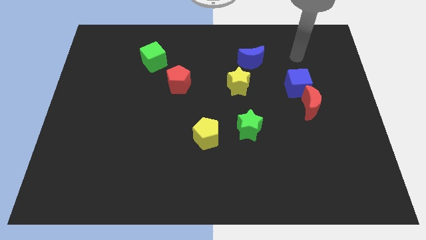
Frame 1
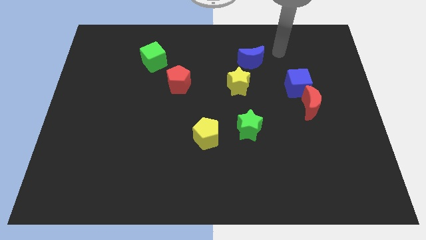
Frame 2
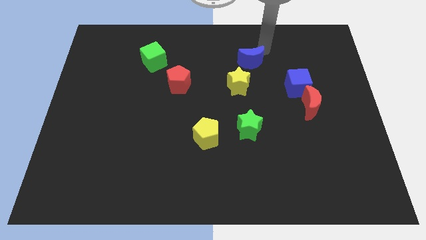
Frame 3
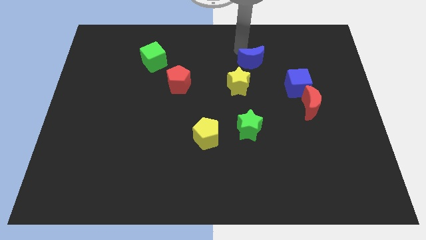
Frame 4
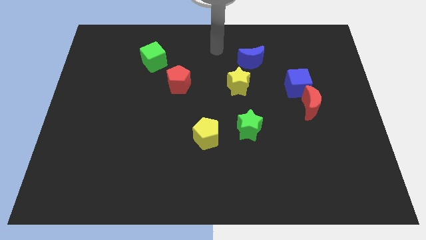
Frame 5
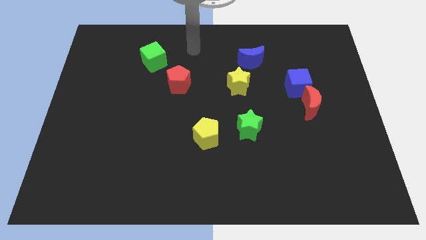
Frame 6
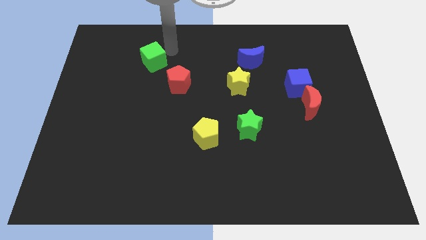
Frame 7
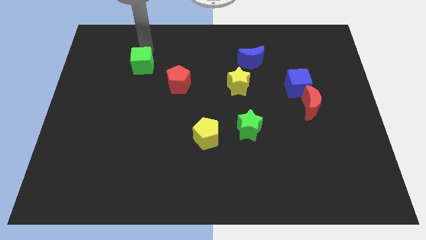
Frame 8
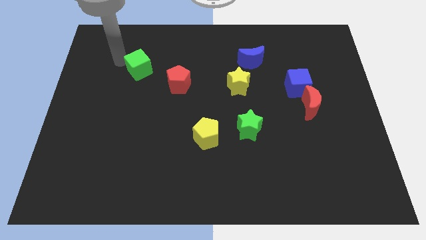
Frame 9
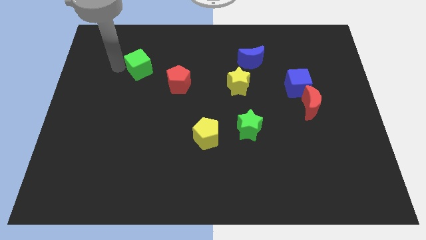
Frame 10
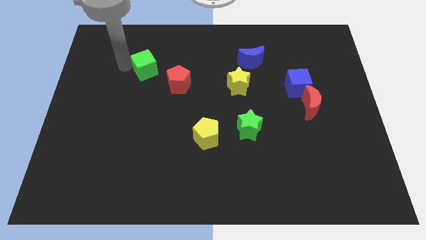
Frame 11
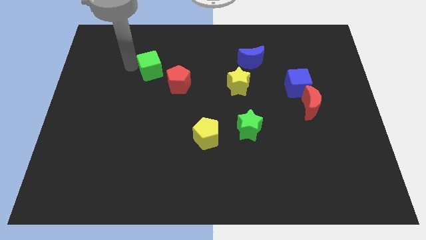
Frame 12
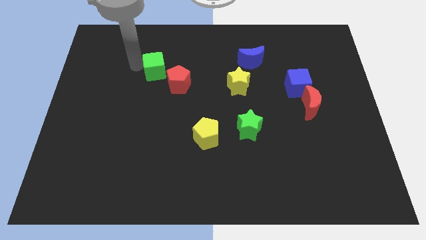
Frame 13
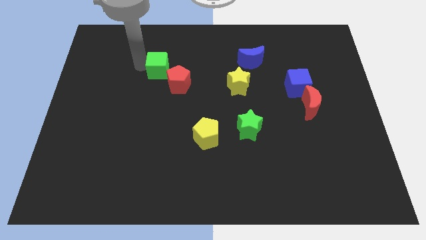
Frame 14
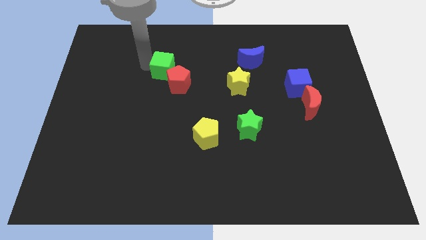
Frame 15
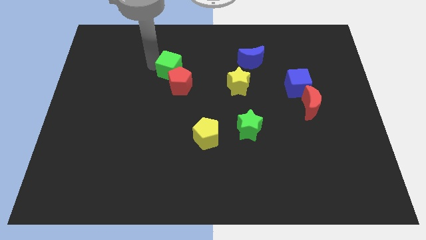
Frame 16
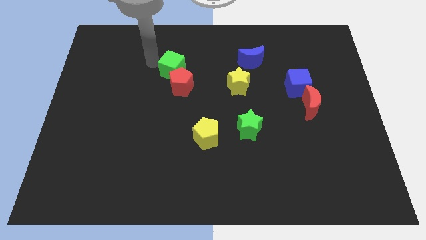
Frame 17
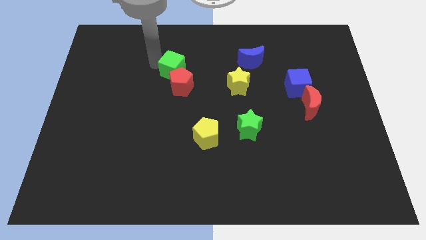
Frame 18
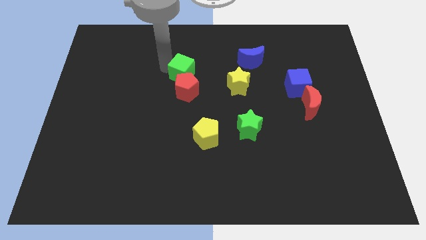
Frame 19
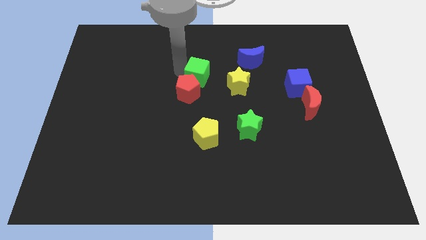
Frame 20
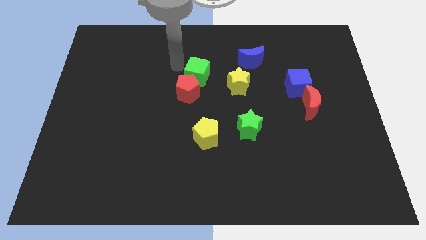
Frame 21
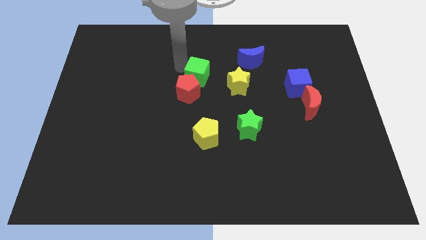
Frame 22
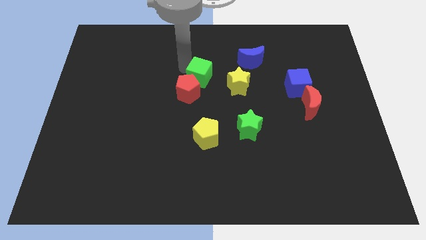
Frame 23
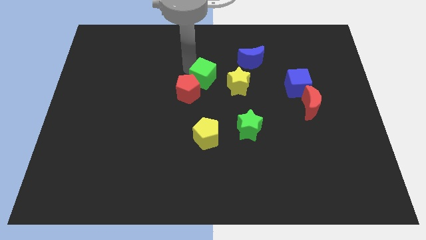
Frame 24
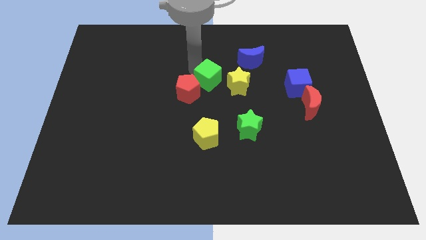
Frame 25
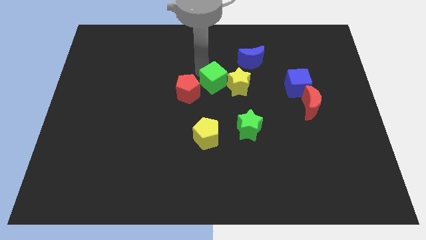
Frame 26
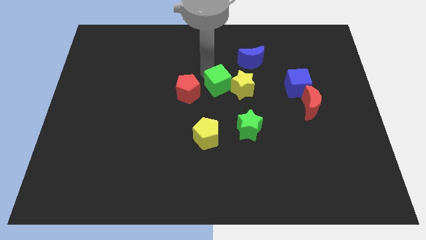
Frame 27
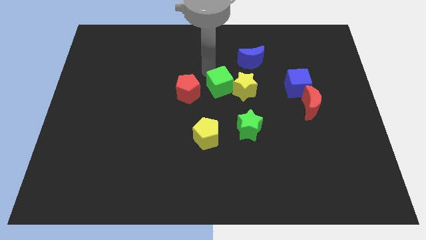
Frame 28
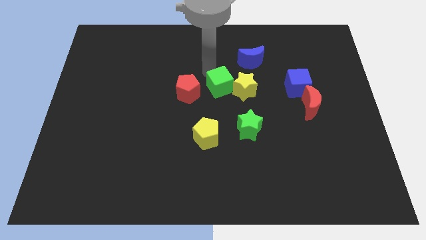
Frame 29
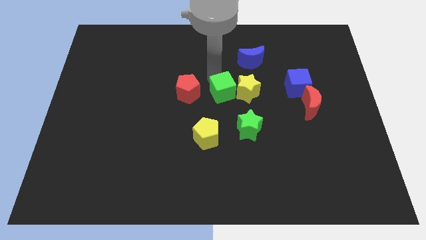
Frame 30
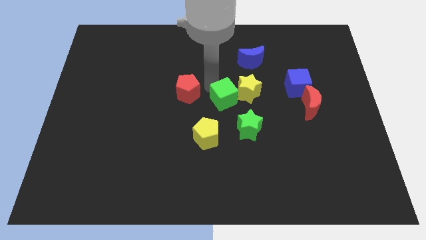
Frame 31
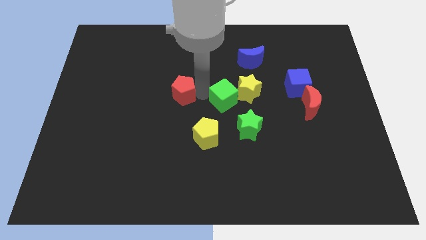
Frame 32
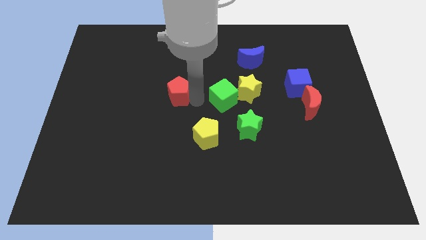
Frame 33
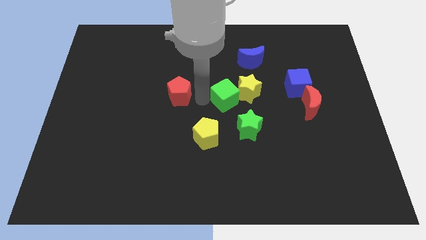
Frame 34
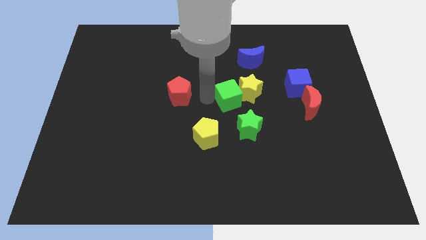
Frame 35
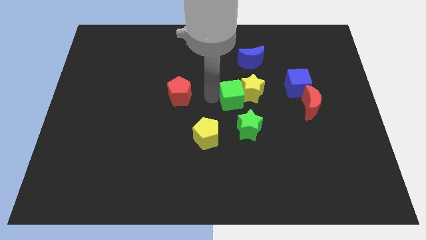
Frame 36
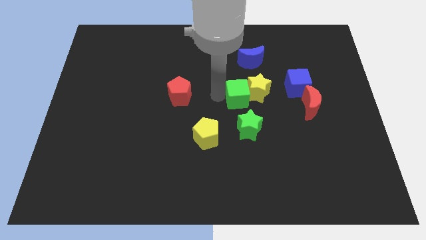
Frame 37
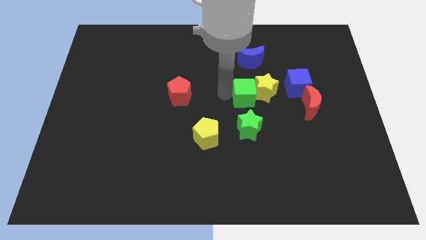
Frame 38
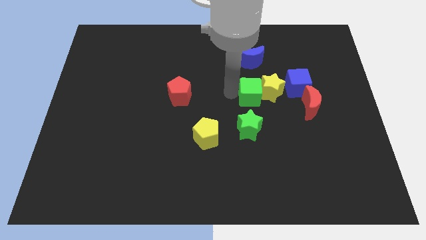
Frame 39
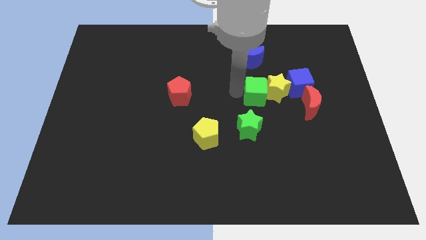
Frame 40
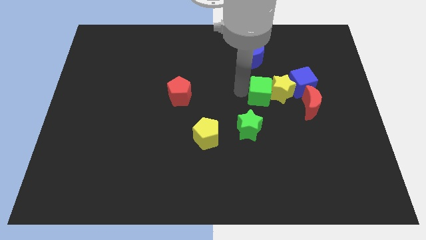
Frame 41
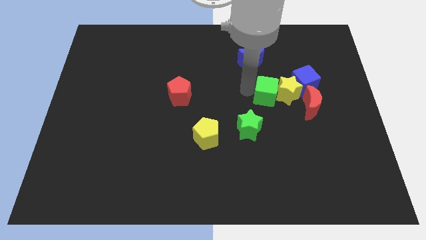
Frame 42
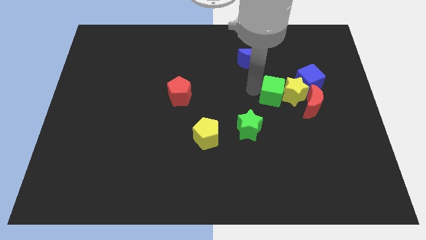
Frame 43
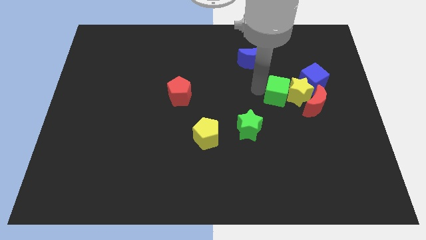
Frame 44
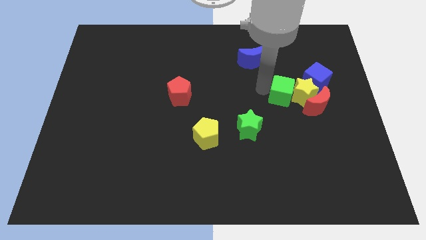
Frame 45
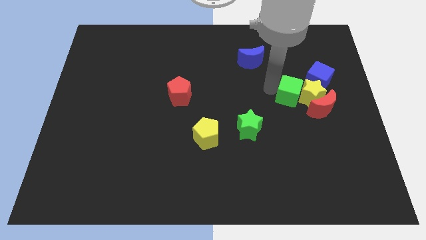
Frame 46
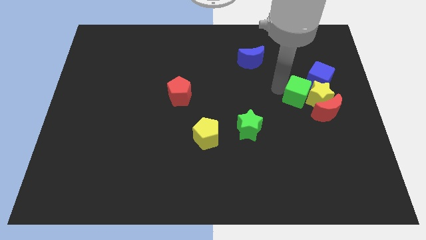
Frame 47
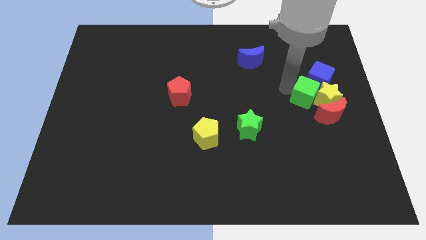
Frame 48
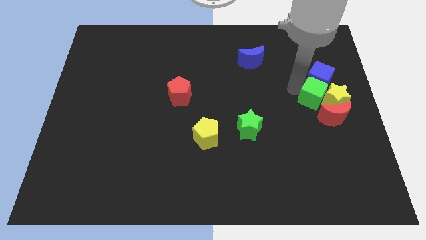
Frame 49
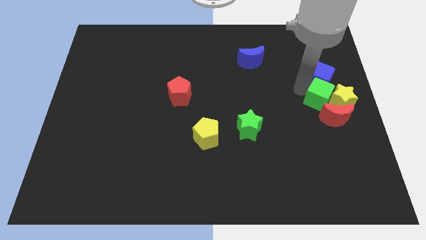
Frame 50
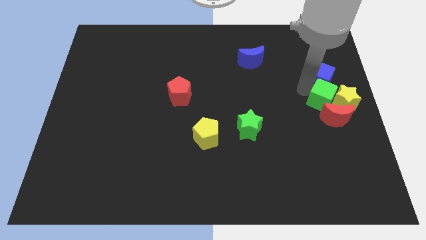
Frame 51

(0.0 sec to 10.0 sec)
put the green cube next to the red moon

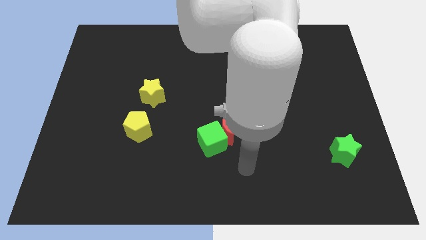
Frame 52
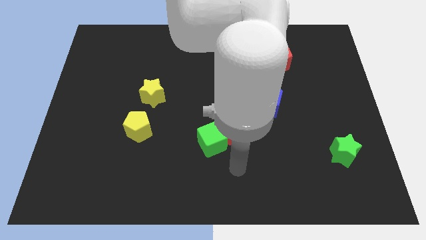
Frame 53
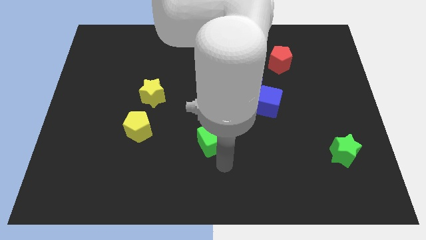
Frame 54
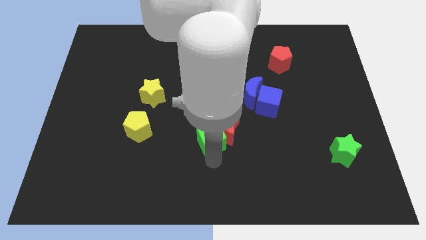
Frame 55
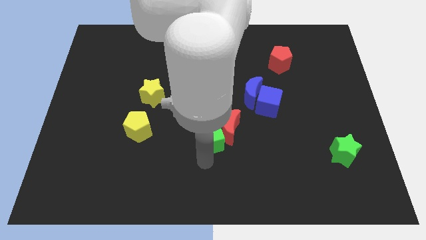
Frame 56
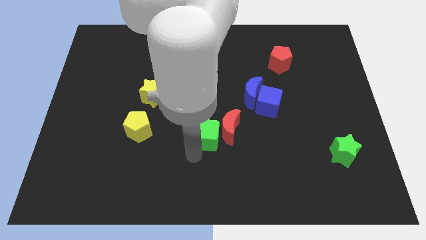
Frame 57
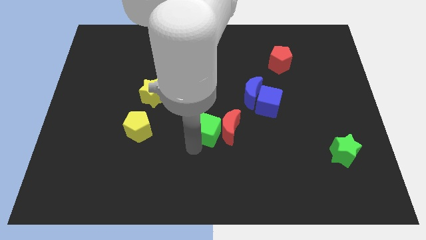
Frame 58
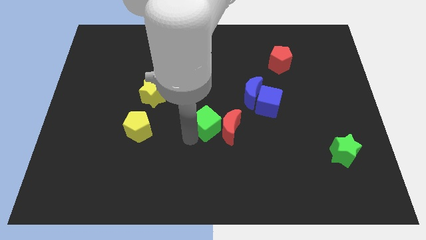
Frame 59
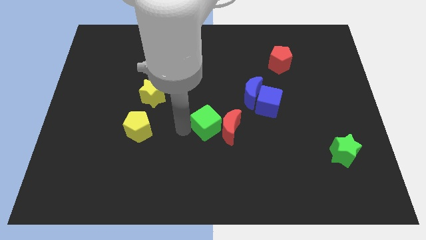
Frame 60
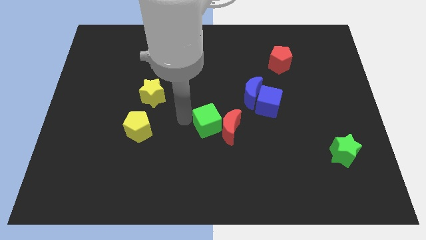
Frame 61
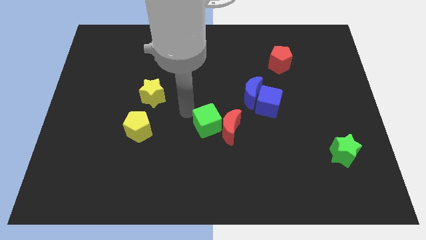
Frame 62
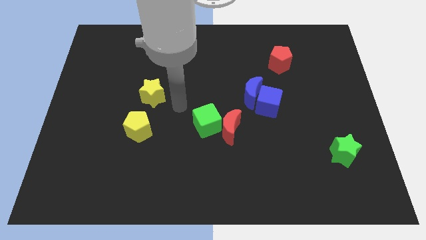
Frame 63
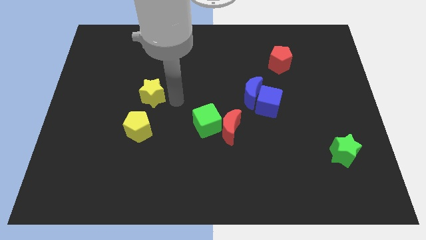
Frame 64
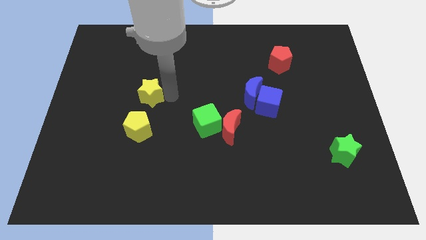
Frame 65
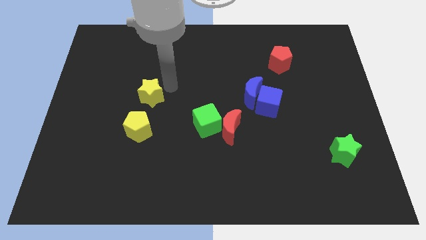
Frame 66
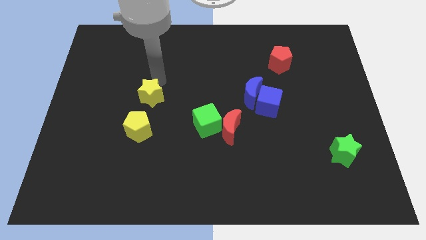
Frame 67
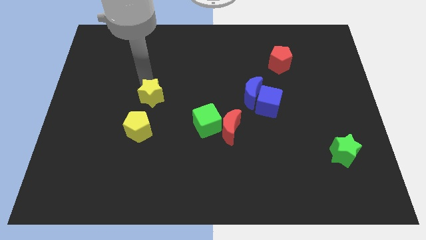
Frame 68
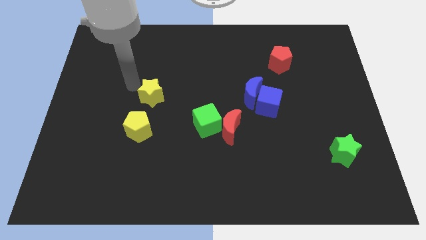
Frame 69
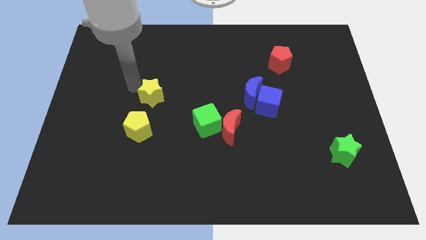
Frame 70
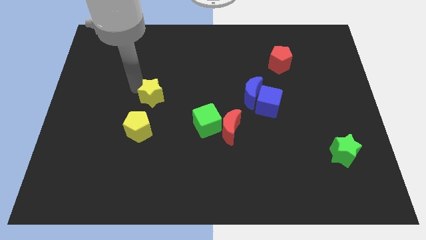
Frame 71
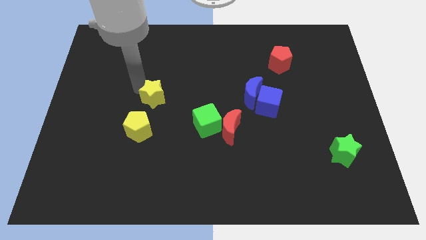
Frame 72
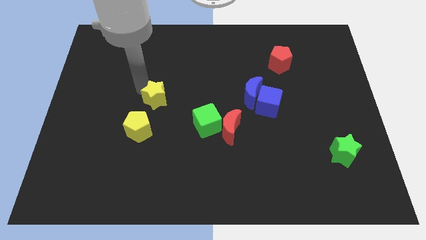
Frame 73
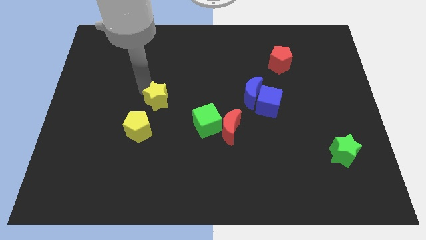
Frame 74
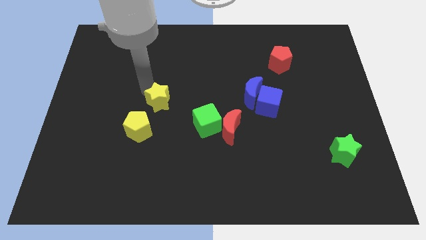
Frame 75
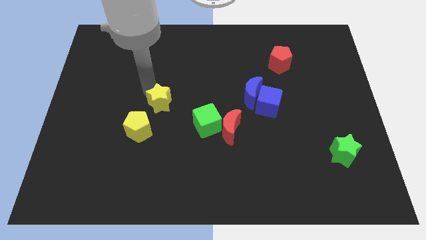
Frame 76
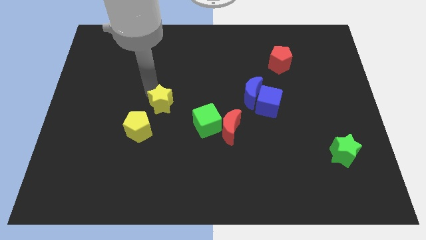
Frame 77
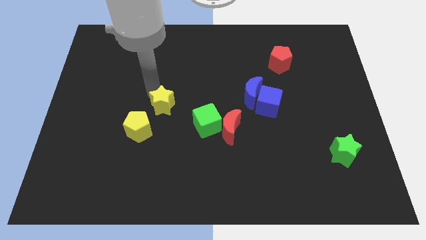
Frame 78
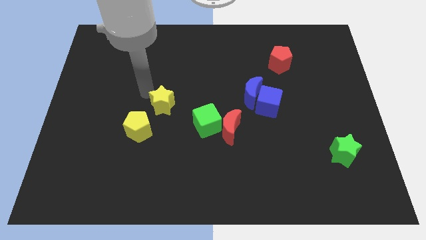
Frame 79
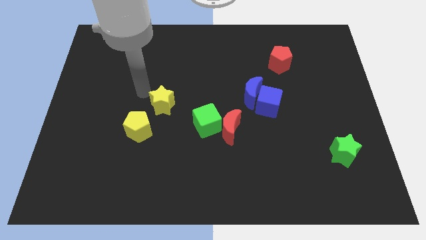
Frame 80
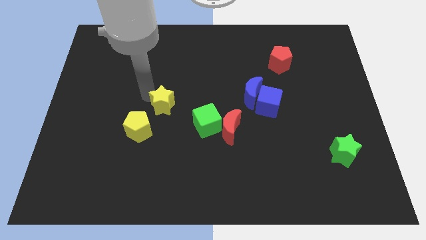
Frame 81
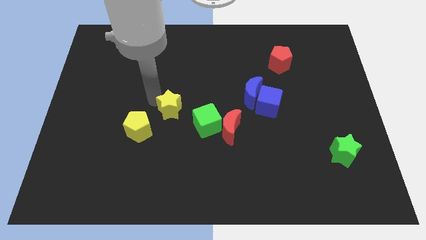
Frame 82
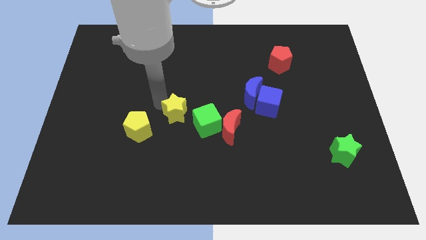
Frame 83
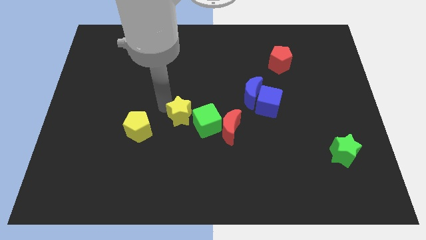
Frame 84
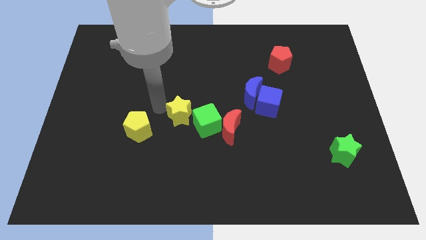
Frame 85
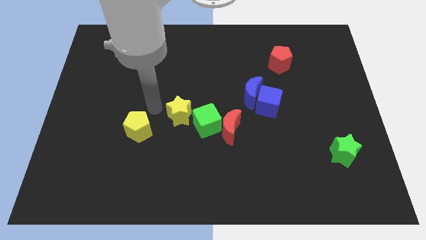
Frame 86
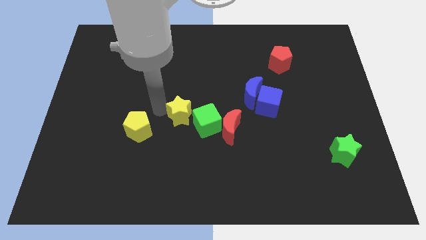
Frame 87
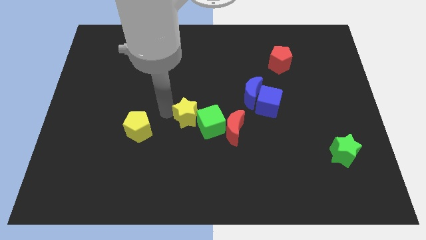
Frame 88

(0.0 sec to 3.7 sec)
put the yellow star to the green cube
